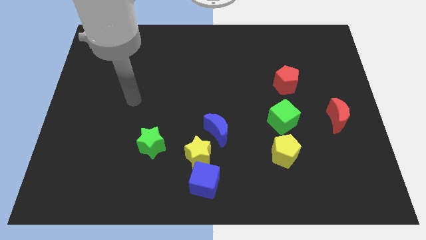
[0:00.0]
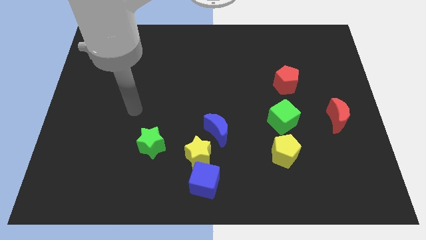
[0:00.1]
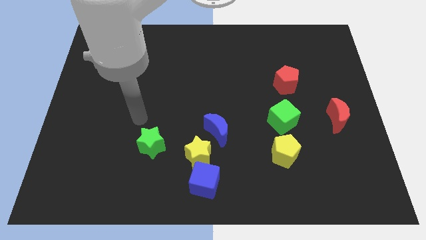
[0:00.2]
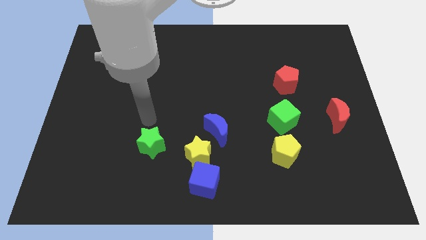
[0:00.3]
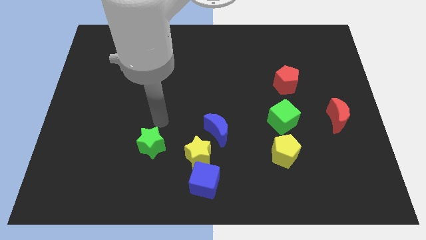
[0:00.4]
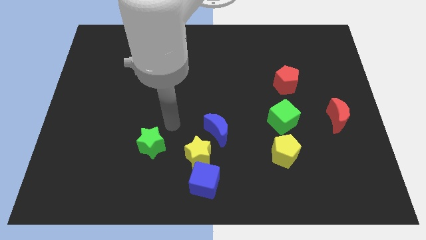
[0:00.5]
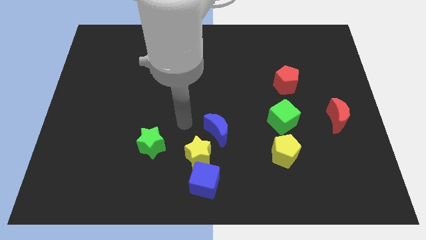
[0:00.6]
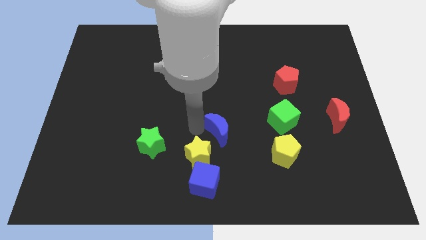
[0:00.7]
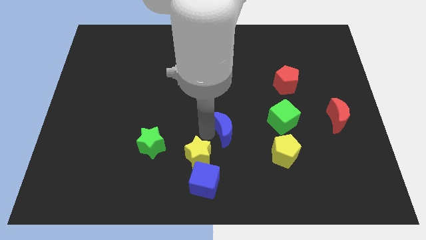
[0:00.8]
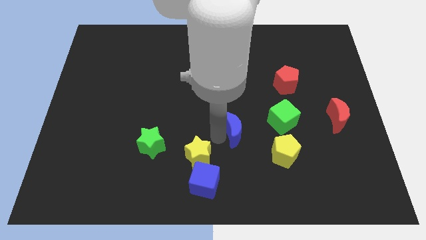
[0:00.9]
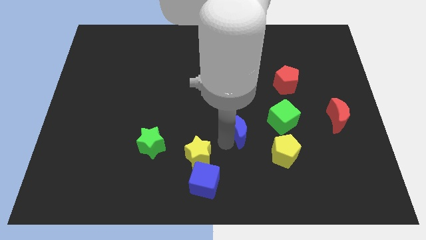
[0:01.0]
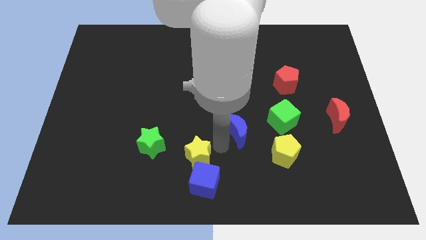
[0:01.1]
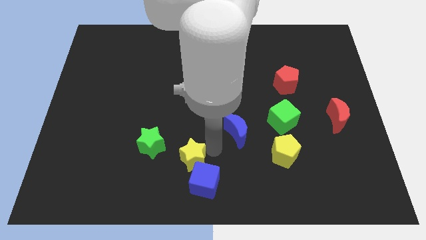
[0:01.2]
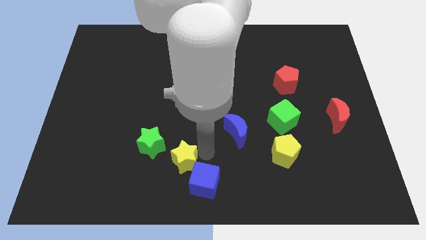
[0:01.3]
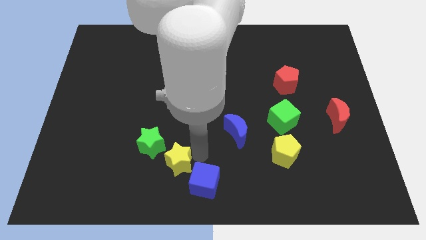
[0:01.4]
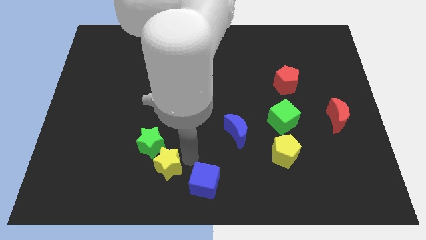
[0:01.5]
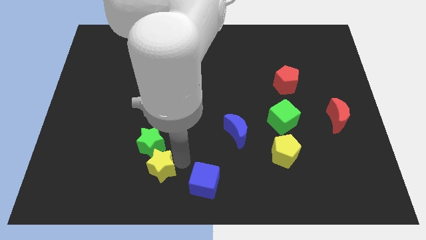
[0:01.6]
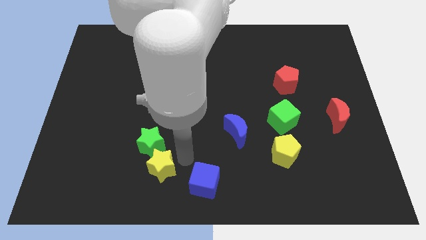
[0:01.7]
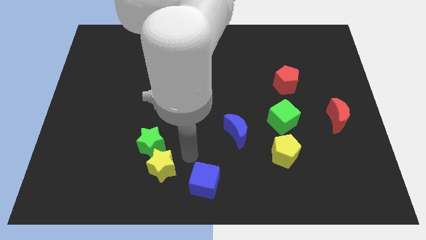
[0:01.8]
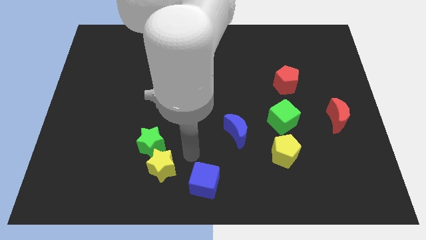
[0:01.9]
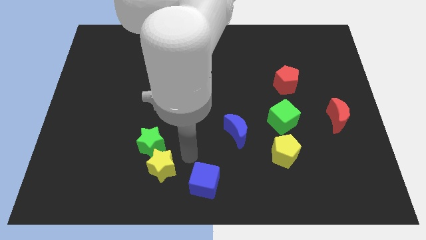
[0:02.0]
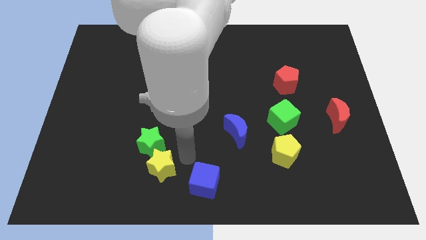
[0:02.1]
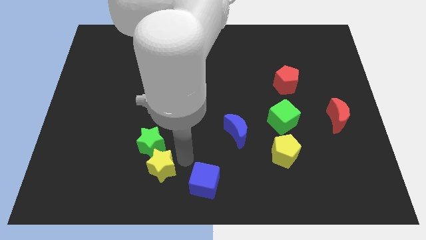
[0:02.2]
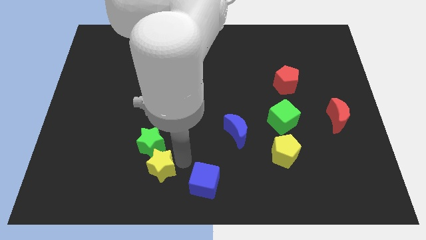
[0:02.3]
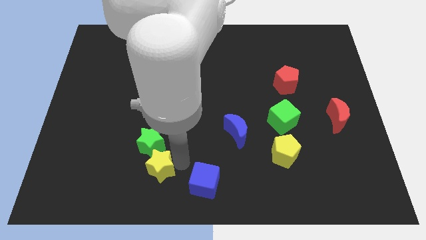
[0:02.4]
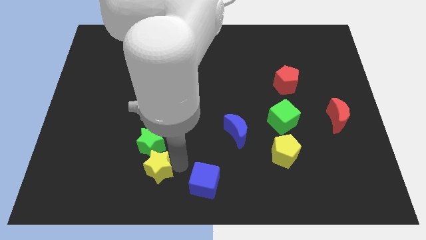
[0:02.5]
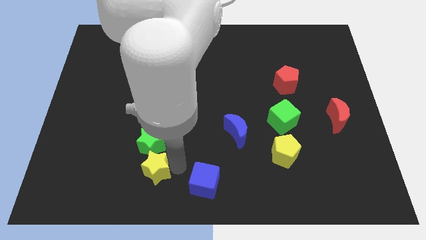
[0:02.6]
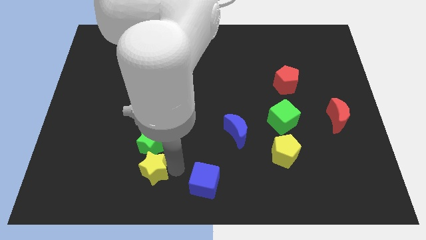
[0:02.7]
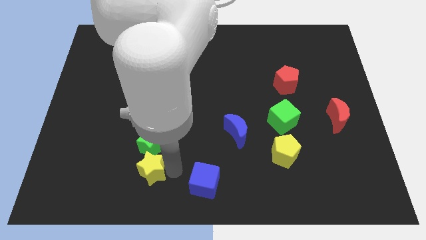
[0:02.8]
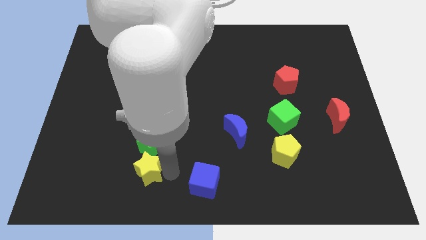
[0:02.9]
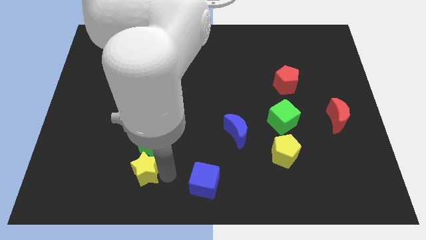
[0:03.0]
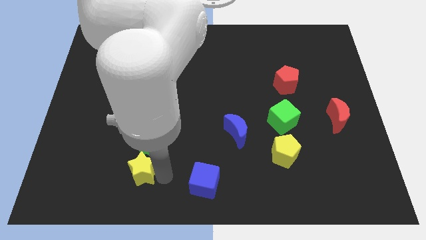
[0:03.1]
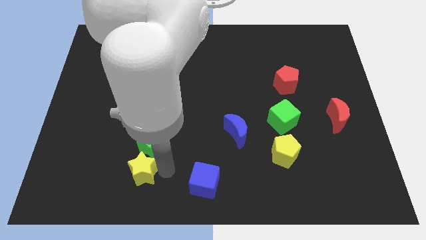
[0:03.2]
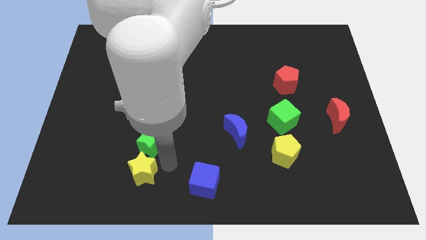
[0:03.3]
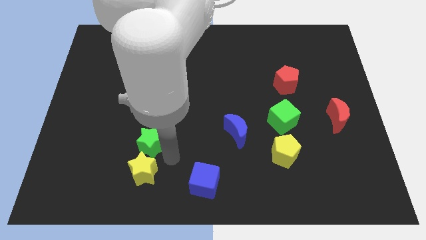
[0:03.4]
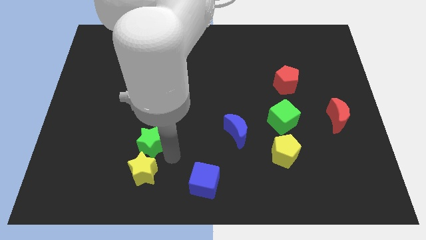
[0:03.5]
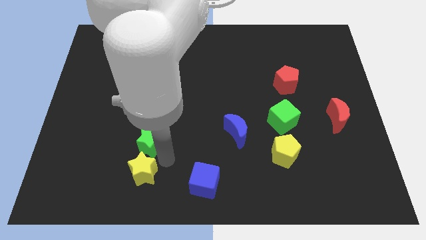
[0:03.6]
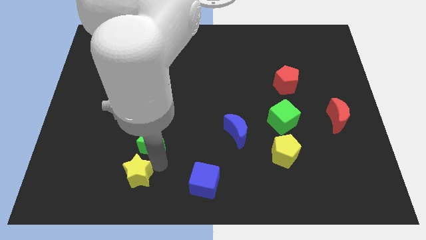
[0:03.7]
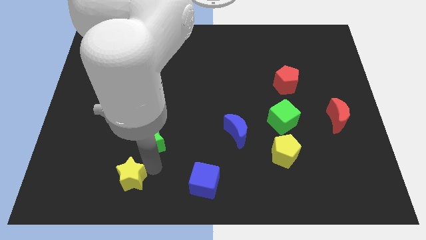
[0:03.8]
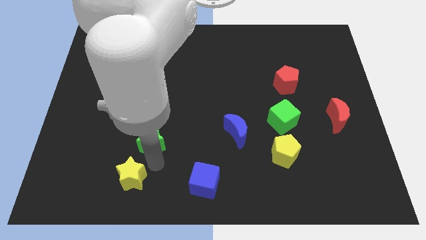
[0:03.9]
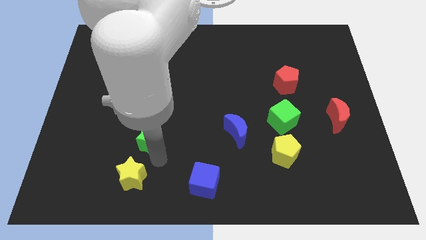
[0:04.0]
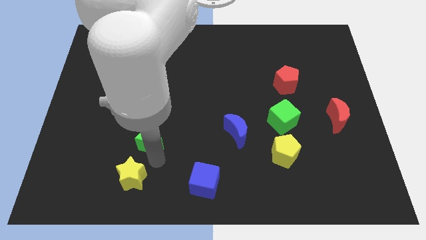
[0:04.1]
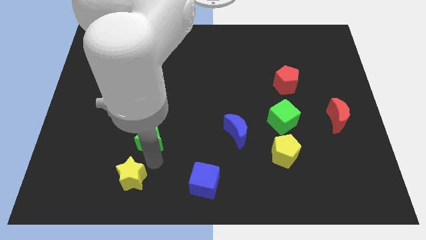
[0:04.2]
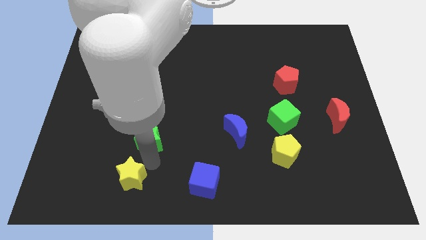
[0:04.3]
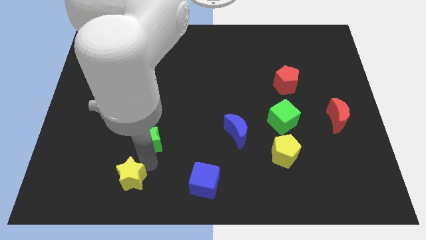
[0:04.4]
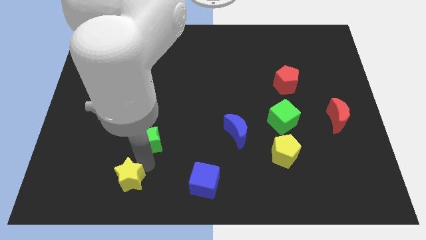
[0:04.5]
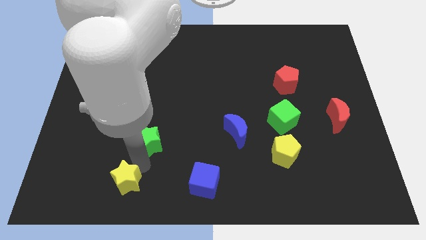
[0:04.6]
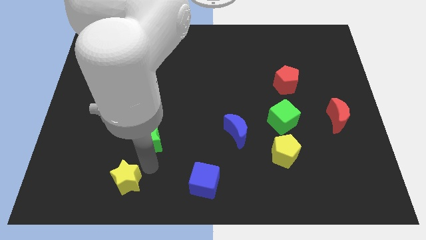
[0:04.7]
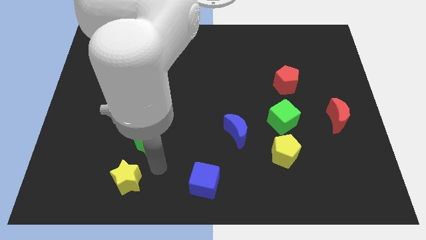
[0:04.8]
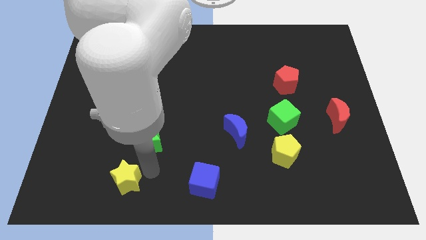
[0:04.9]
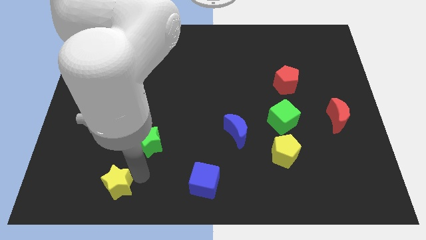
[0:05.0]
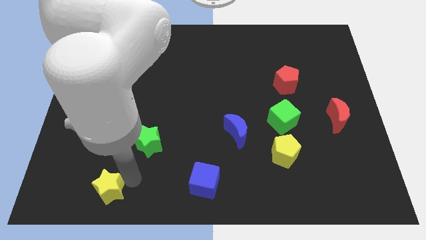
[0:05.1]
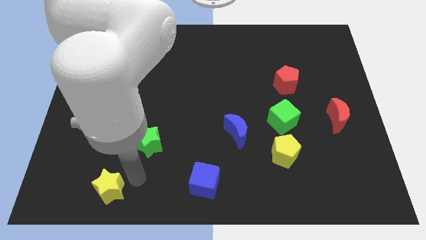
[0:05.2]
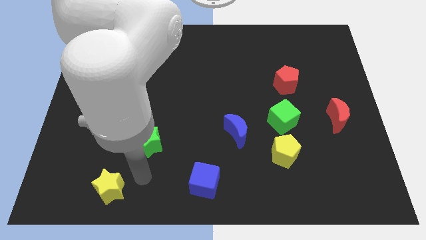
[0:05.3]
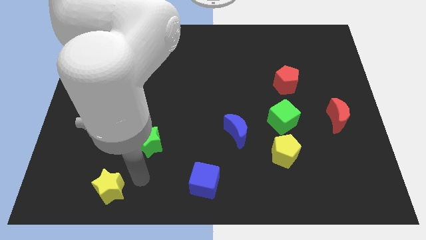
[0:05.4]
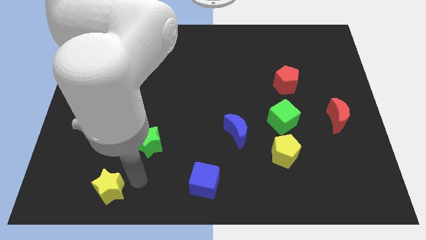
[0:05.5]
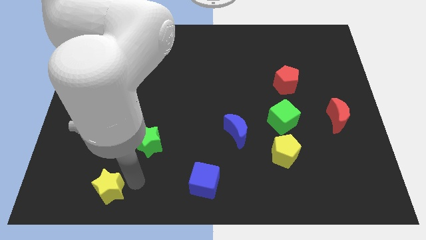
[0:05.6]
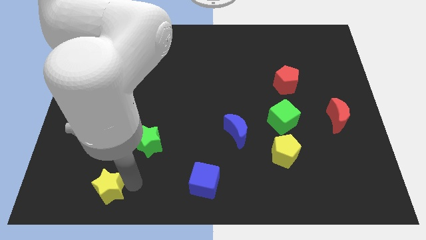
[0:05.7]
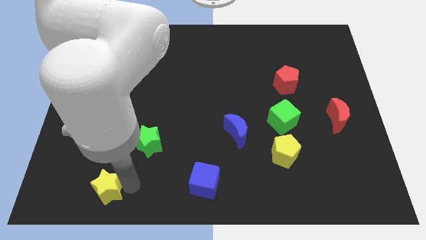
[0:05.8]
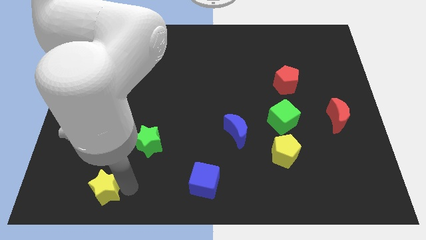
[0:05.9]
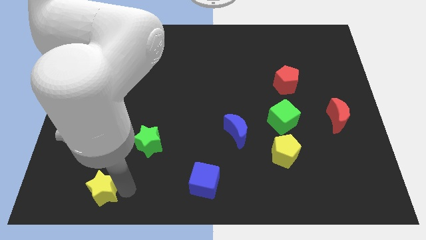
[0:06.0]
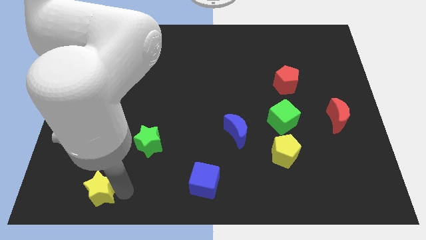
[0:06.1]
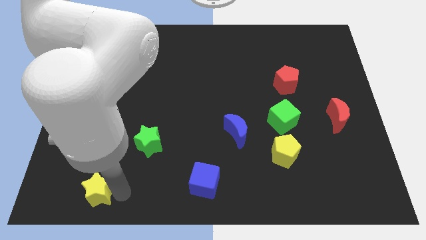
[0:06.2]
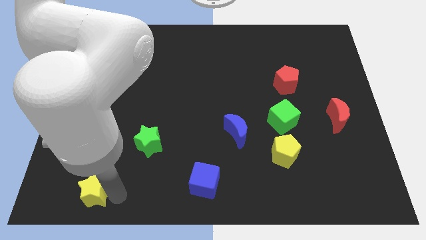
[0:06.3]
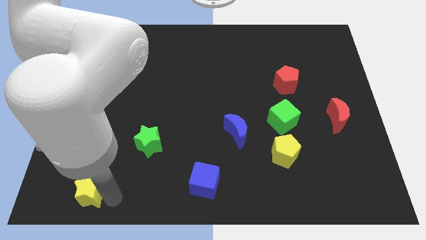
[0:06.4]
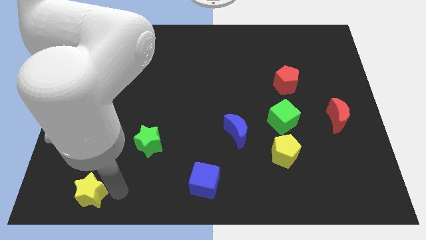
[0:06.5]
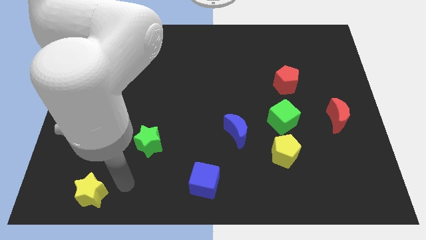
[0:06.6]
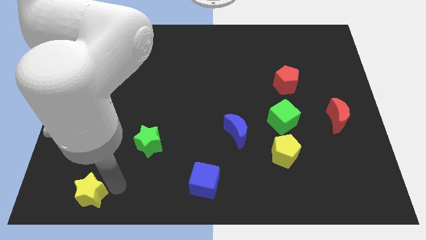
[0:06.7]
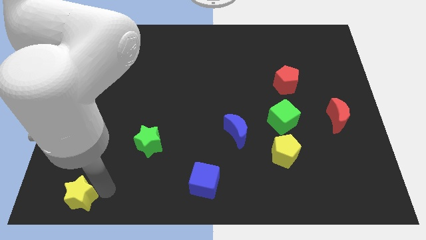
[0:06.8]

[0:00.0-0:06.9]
put the yellow star to the bottom left corner

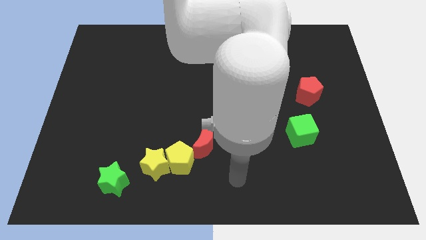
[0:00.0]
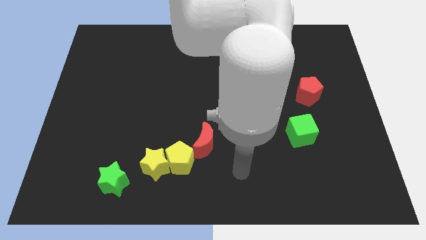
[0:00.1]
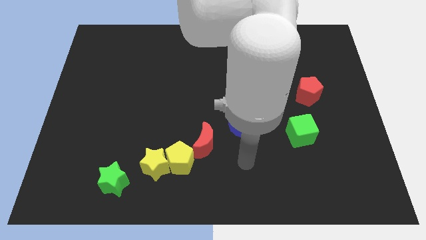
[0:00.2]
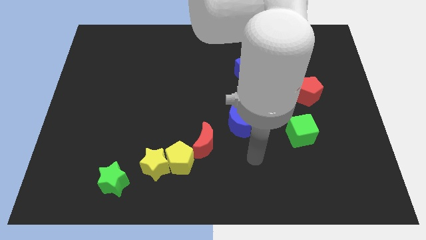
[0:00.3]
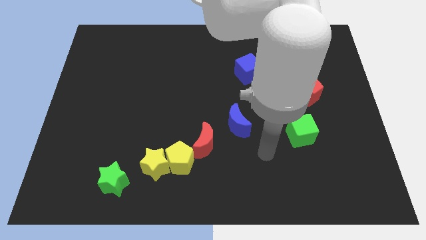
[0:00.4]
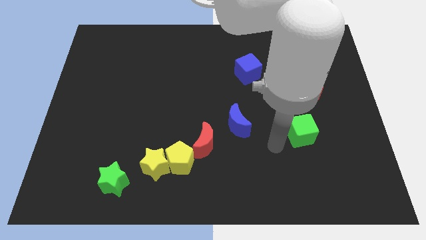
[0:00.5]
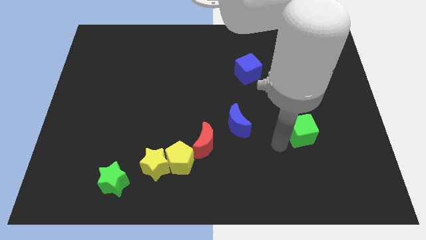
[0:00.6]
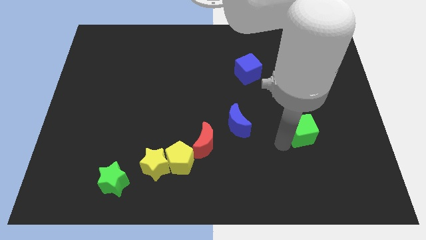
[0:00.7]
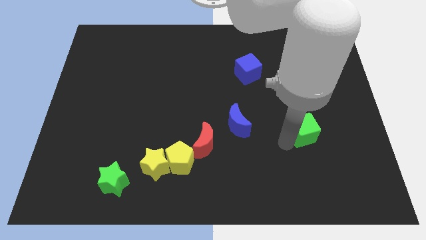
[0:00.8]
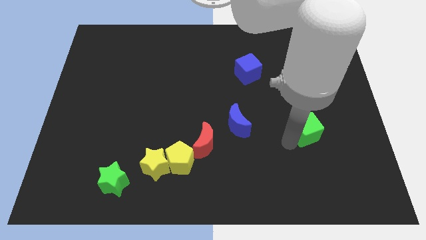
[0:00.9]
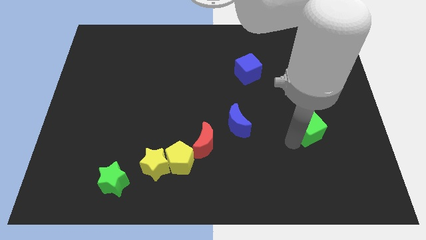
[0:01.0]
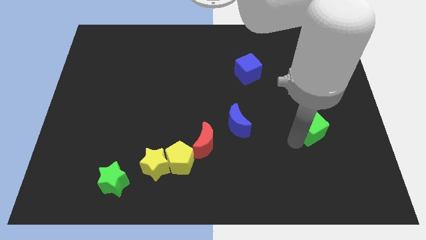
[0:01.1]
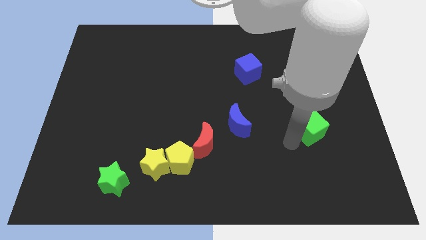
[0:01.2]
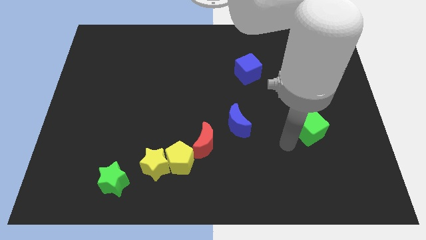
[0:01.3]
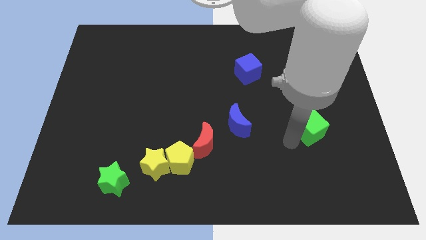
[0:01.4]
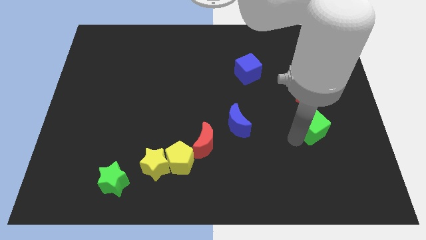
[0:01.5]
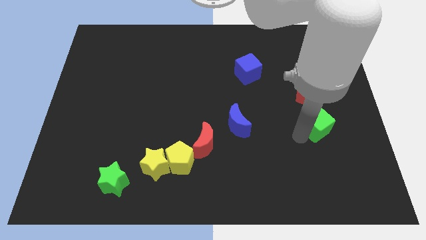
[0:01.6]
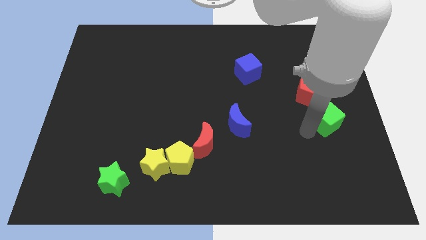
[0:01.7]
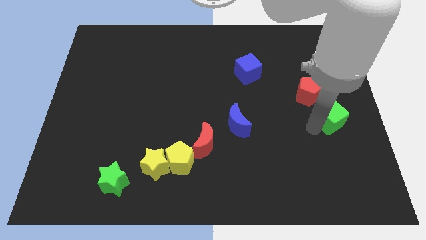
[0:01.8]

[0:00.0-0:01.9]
slide the green cube to the right side of the board
